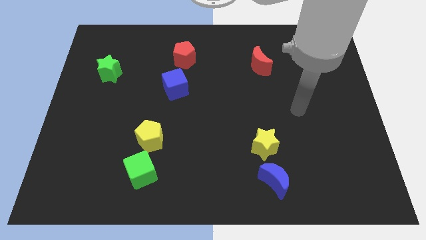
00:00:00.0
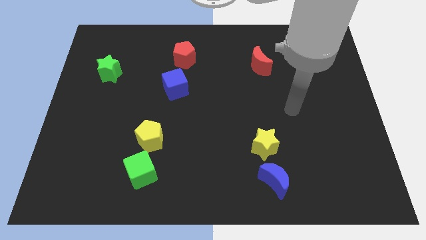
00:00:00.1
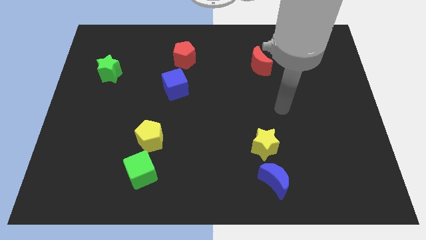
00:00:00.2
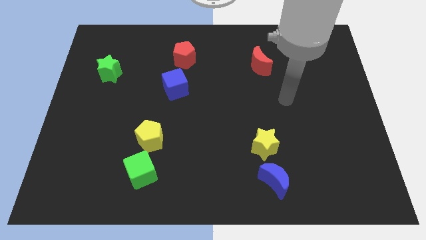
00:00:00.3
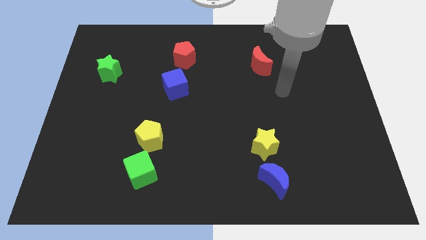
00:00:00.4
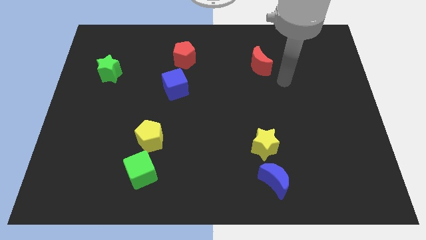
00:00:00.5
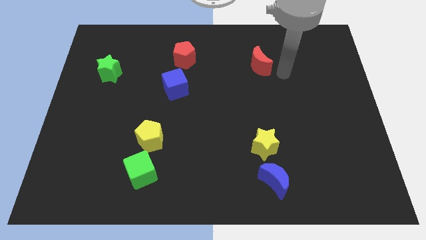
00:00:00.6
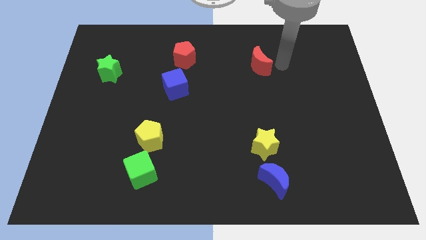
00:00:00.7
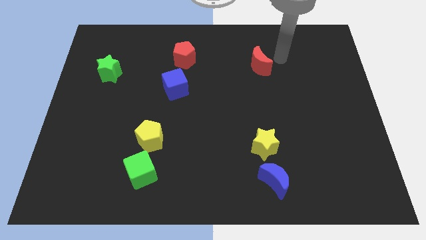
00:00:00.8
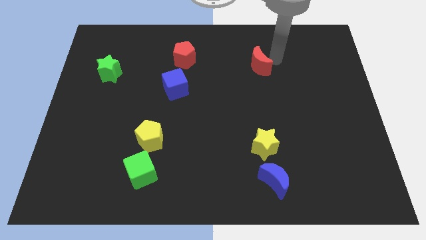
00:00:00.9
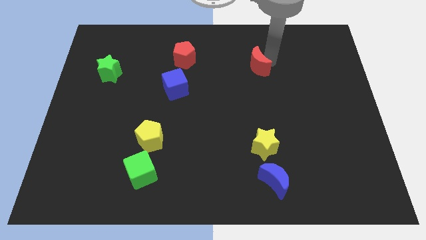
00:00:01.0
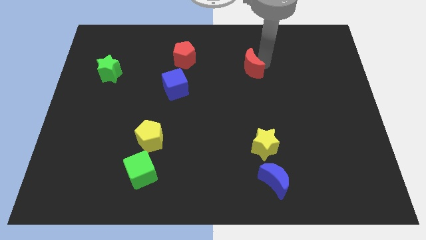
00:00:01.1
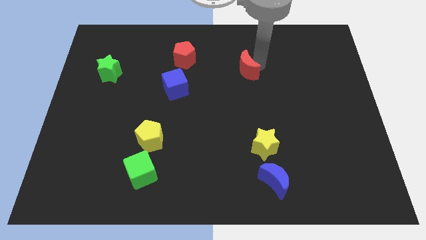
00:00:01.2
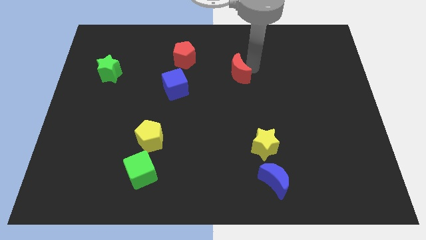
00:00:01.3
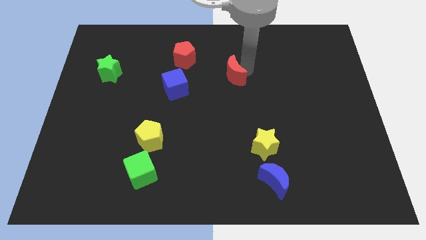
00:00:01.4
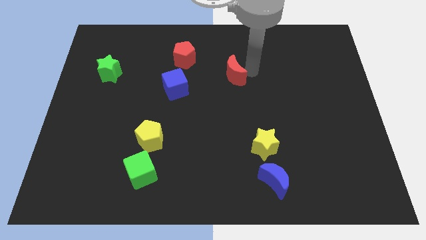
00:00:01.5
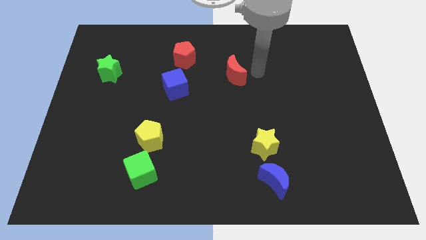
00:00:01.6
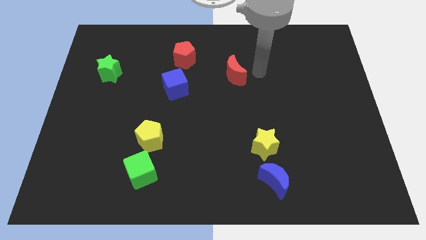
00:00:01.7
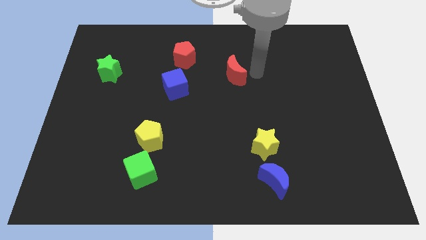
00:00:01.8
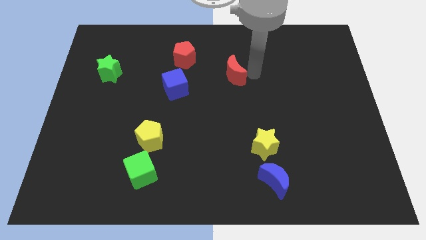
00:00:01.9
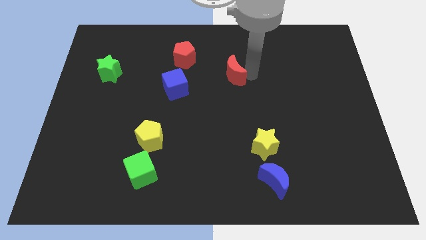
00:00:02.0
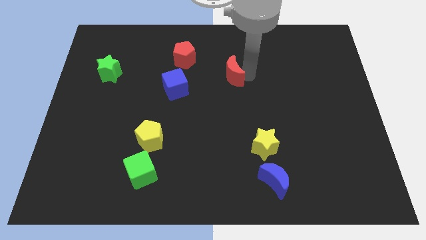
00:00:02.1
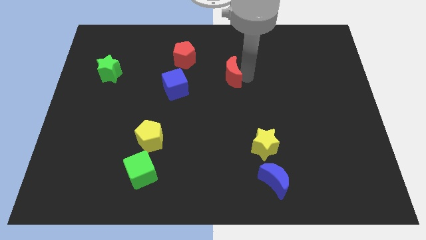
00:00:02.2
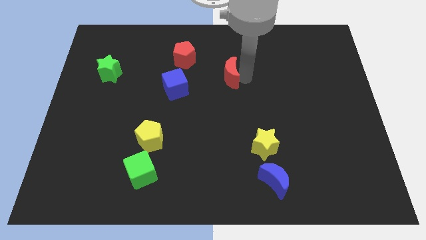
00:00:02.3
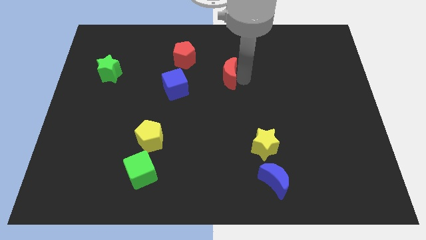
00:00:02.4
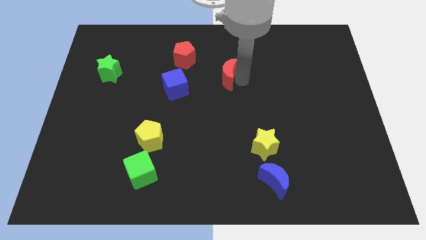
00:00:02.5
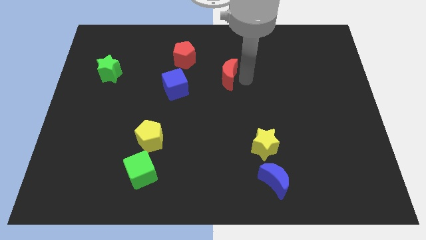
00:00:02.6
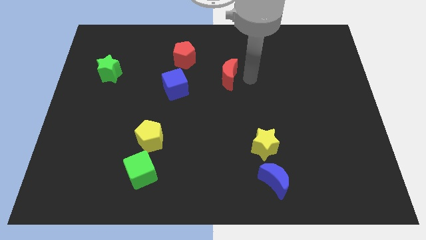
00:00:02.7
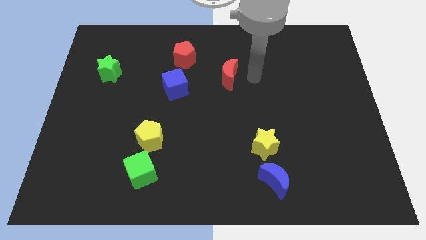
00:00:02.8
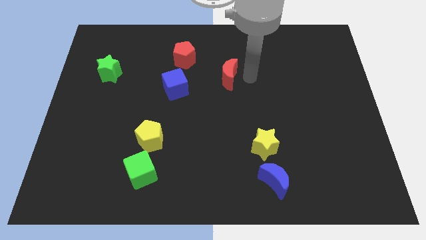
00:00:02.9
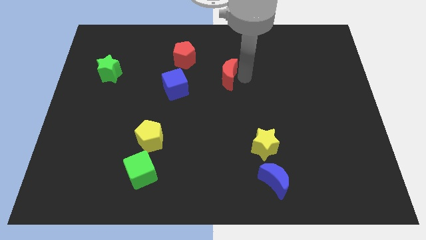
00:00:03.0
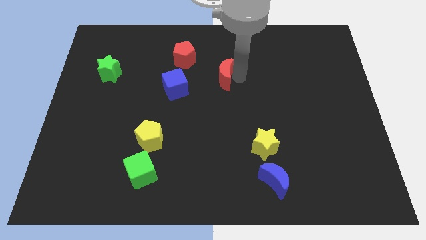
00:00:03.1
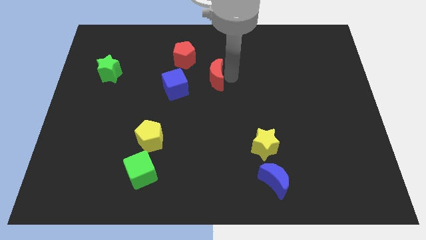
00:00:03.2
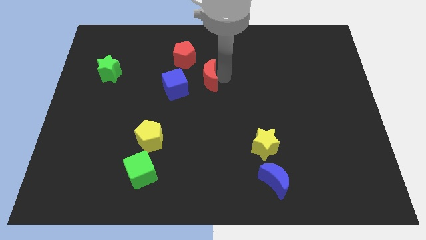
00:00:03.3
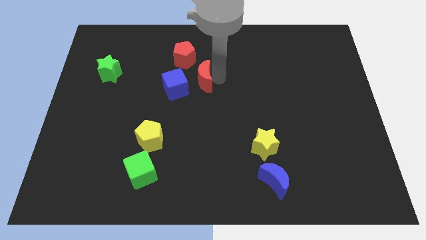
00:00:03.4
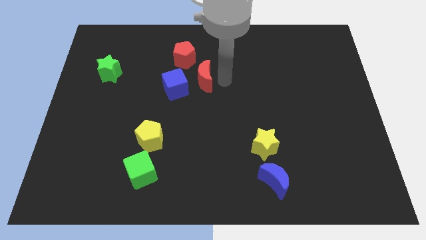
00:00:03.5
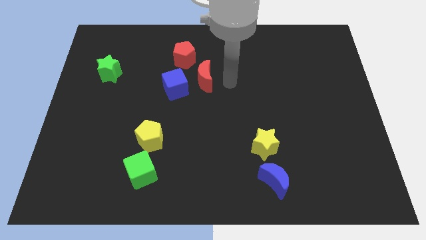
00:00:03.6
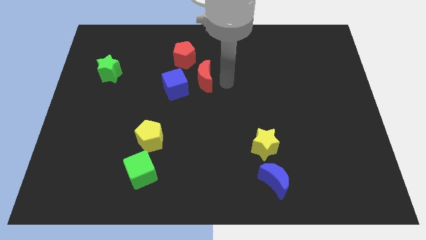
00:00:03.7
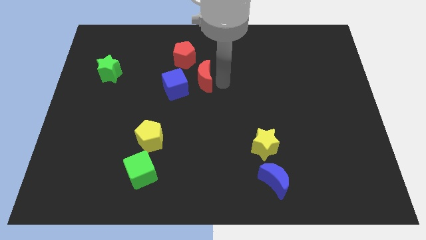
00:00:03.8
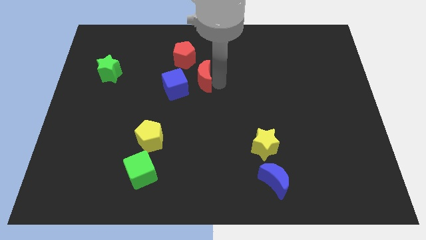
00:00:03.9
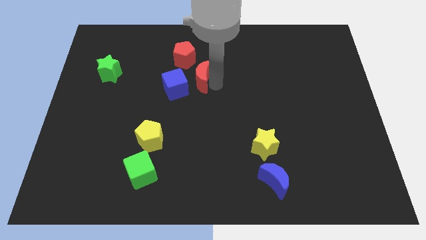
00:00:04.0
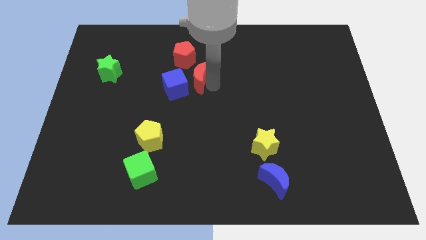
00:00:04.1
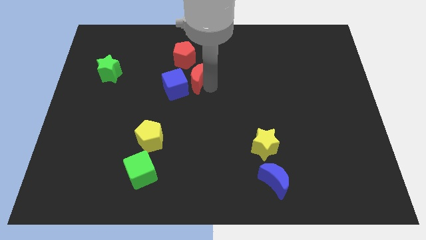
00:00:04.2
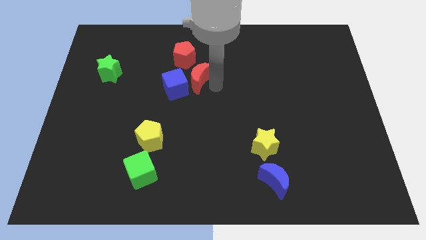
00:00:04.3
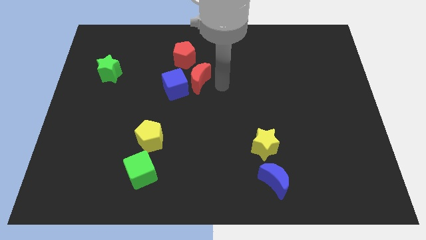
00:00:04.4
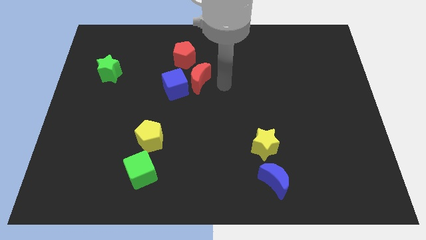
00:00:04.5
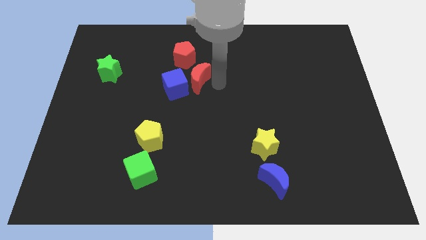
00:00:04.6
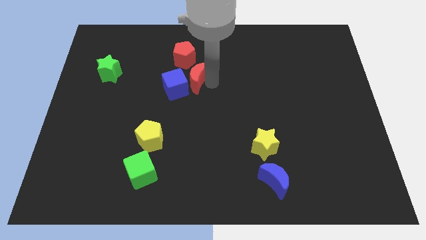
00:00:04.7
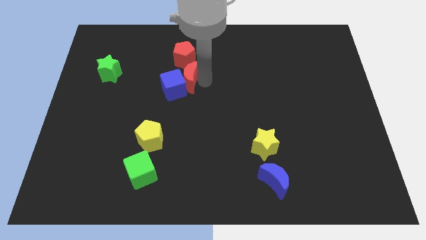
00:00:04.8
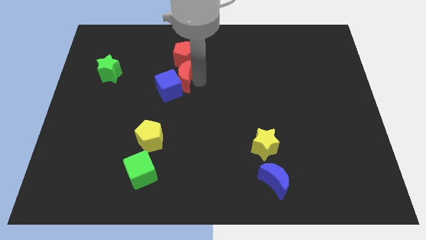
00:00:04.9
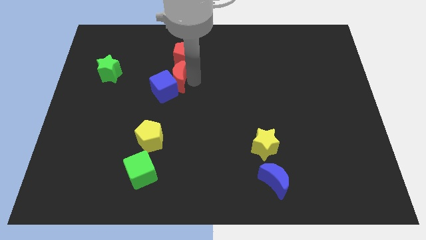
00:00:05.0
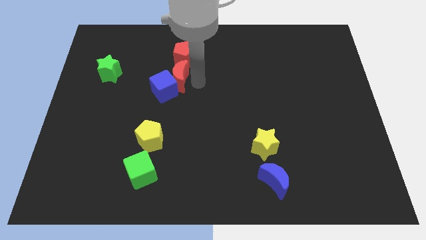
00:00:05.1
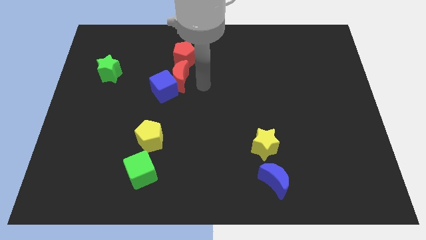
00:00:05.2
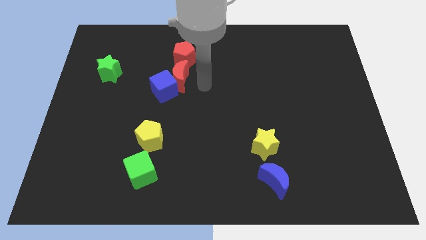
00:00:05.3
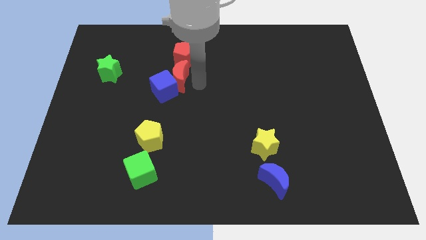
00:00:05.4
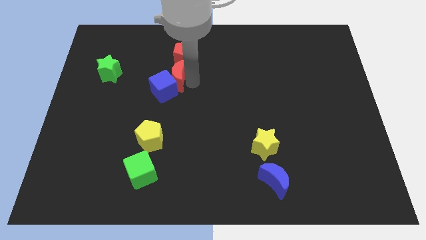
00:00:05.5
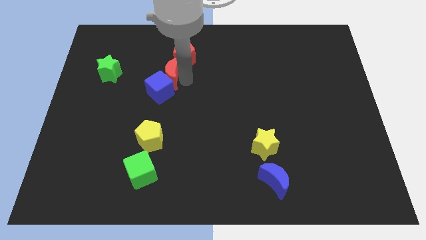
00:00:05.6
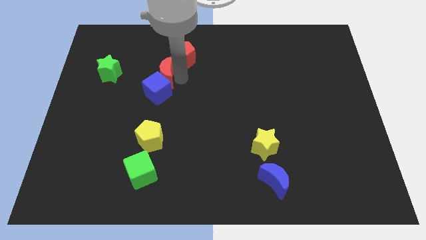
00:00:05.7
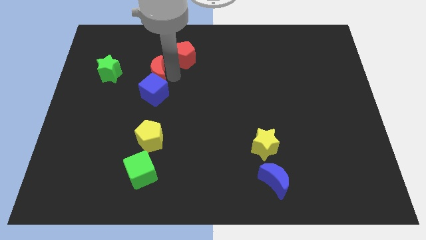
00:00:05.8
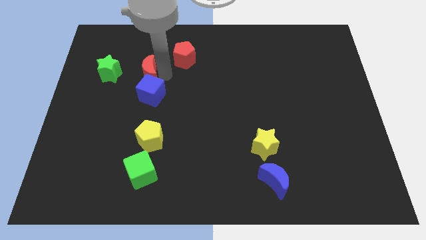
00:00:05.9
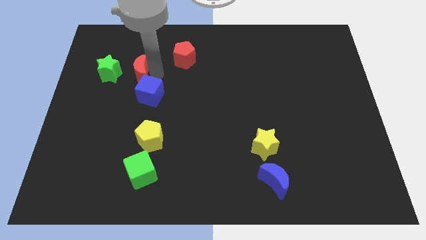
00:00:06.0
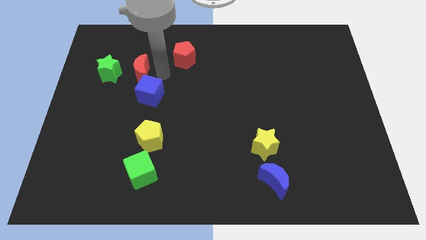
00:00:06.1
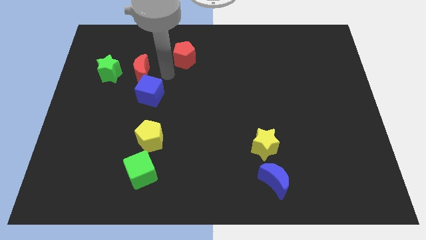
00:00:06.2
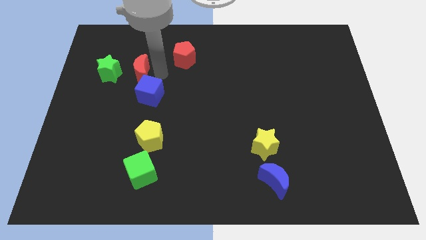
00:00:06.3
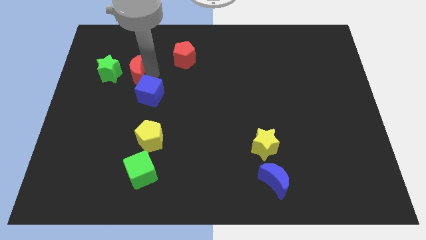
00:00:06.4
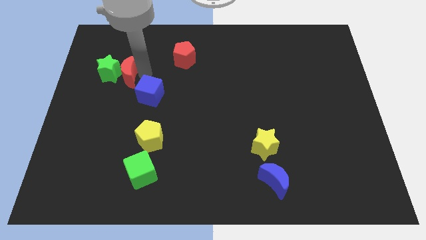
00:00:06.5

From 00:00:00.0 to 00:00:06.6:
move the red moon next to the green star

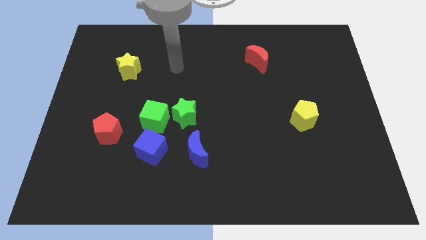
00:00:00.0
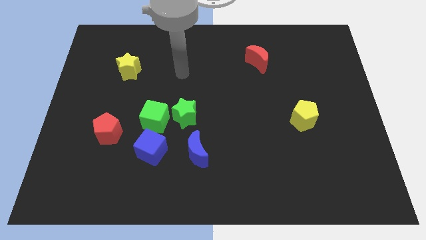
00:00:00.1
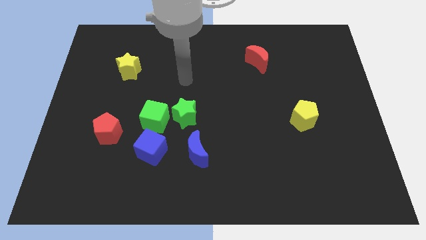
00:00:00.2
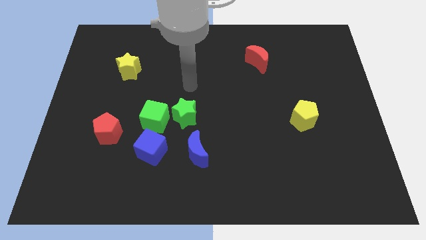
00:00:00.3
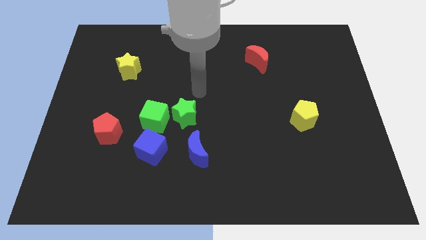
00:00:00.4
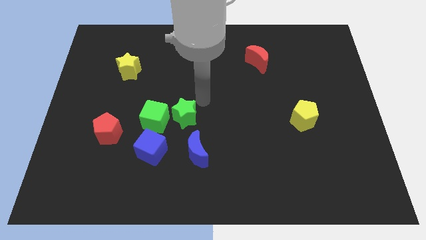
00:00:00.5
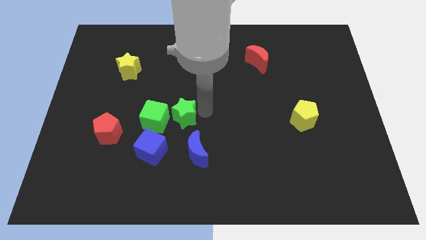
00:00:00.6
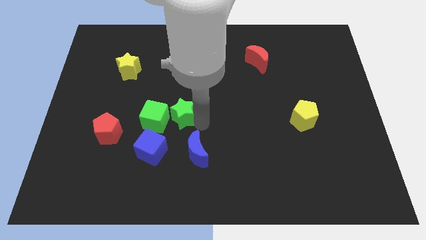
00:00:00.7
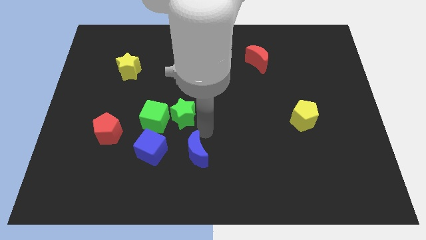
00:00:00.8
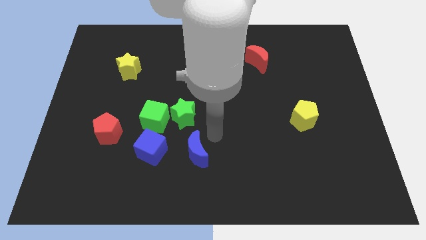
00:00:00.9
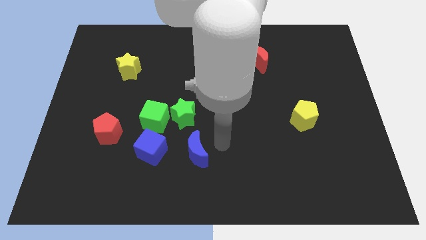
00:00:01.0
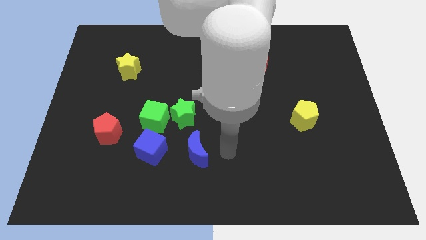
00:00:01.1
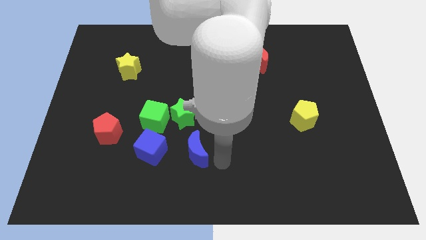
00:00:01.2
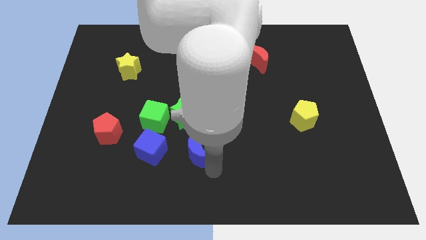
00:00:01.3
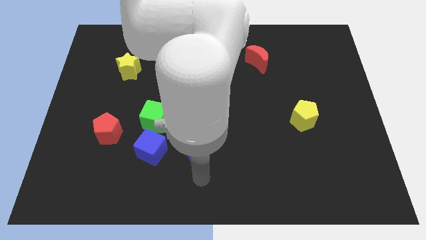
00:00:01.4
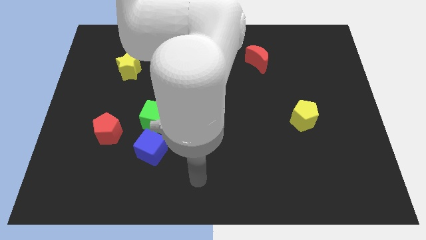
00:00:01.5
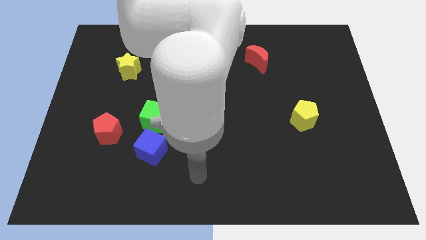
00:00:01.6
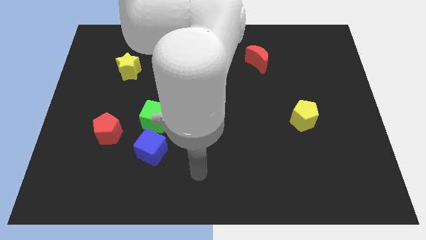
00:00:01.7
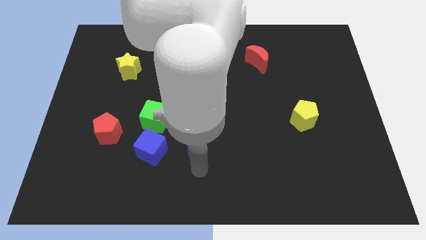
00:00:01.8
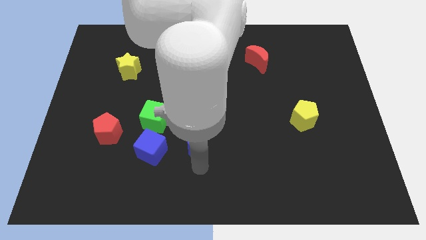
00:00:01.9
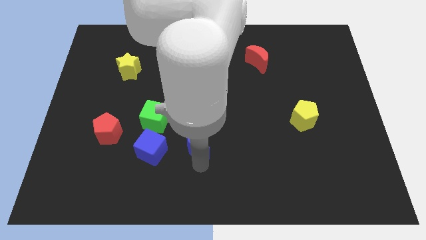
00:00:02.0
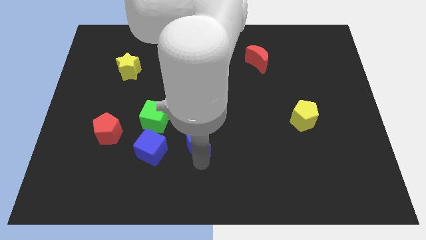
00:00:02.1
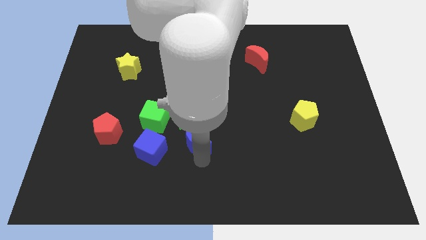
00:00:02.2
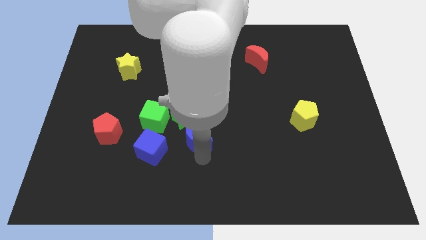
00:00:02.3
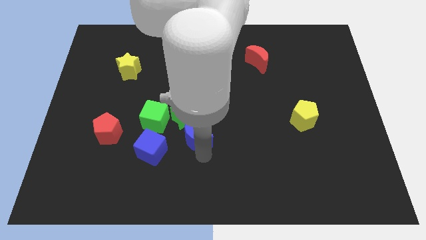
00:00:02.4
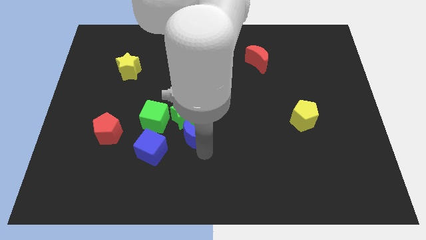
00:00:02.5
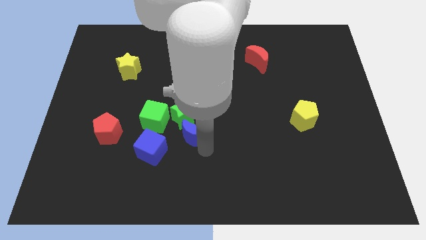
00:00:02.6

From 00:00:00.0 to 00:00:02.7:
put the blue moon towards the green star
